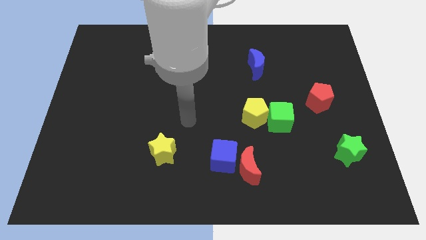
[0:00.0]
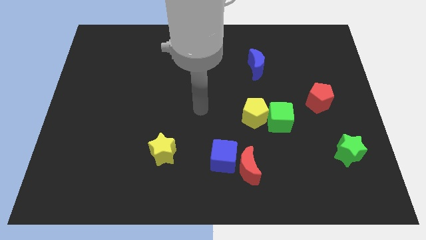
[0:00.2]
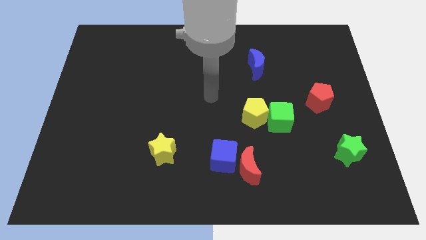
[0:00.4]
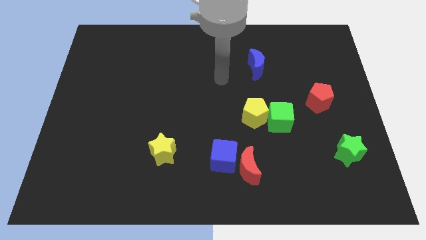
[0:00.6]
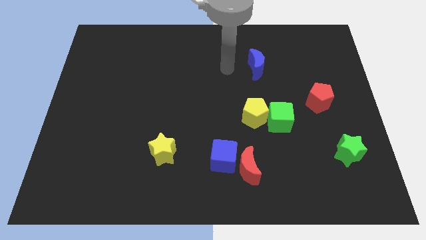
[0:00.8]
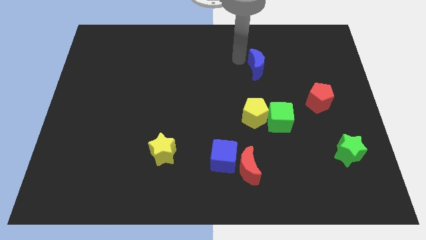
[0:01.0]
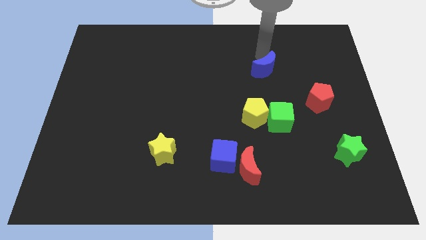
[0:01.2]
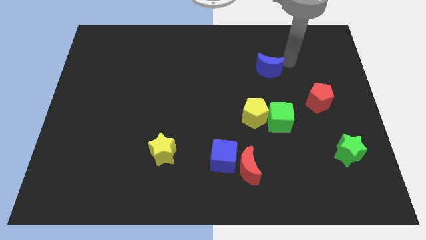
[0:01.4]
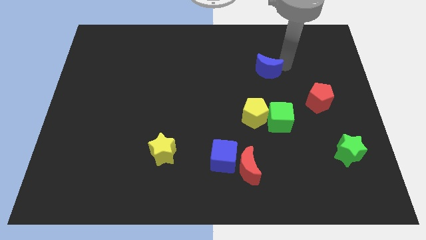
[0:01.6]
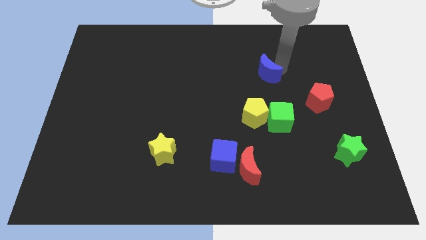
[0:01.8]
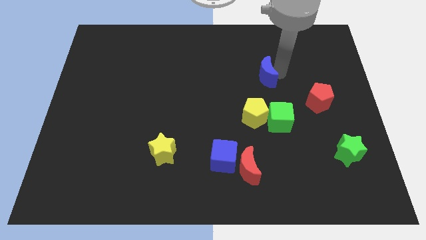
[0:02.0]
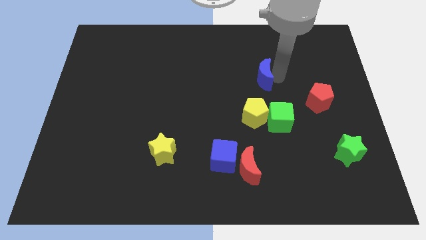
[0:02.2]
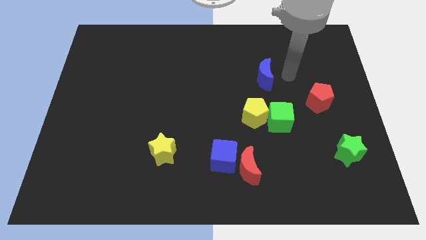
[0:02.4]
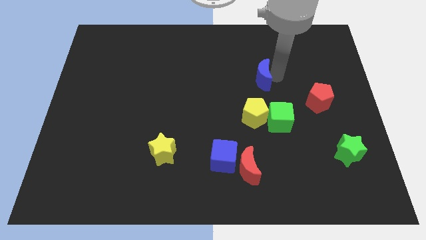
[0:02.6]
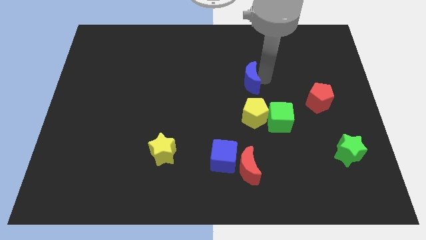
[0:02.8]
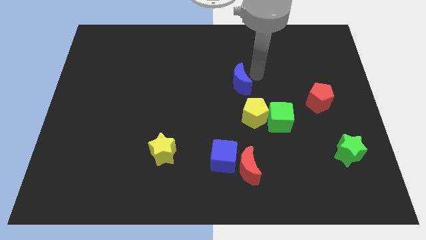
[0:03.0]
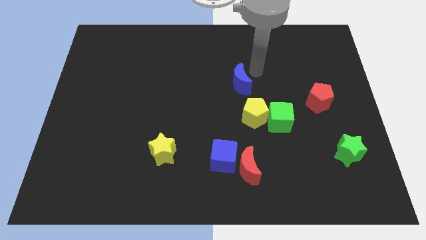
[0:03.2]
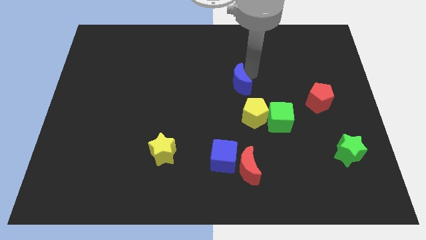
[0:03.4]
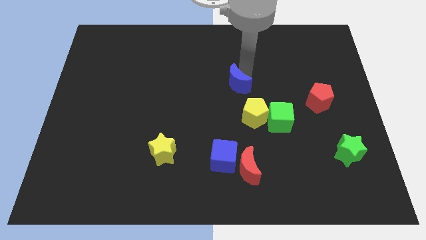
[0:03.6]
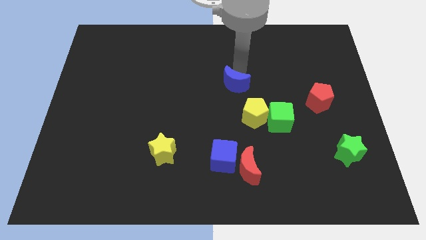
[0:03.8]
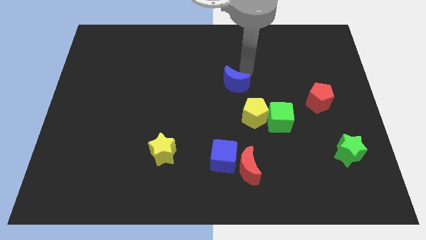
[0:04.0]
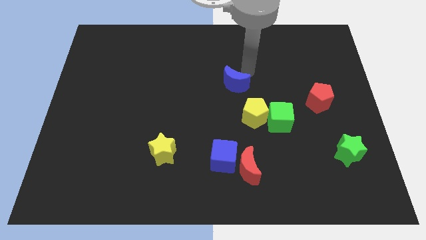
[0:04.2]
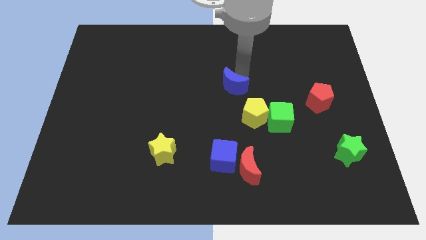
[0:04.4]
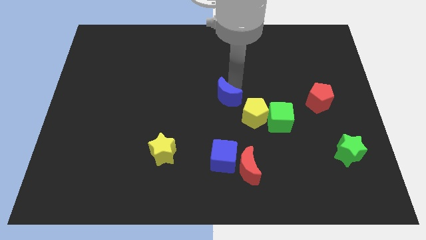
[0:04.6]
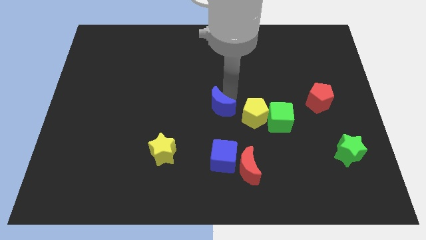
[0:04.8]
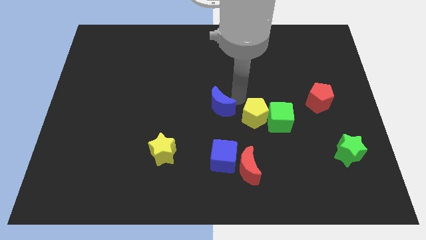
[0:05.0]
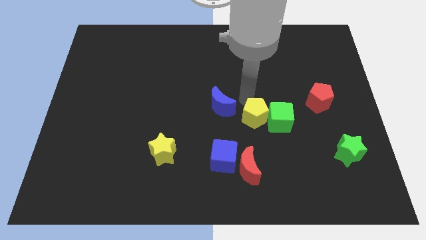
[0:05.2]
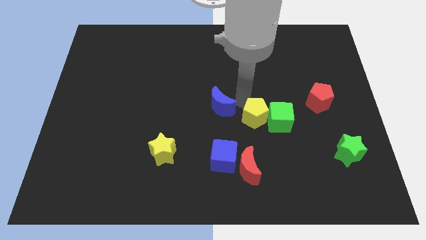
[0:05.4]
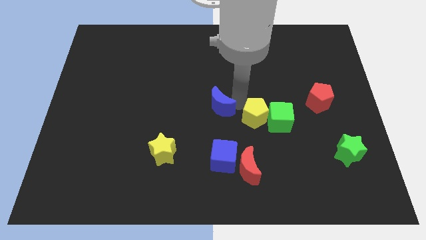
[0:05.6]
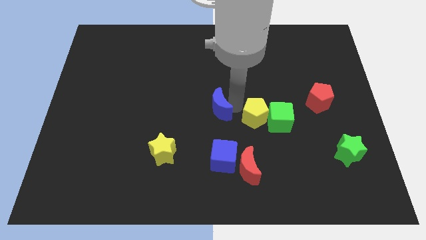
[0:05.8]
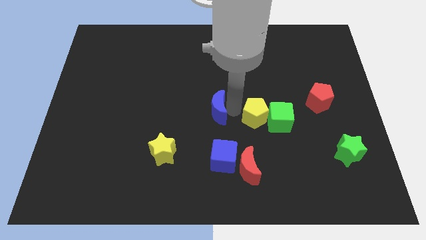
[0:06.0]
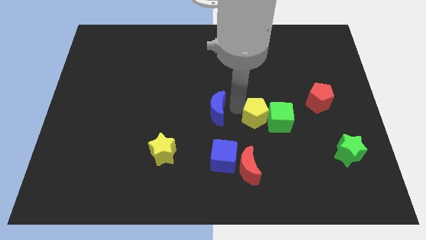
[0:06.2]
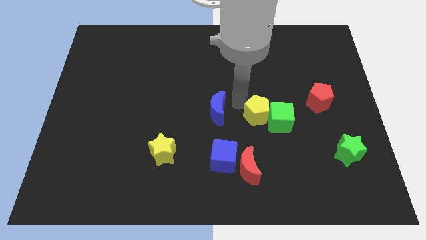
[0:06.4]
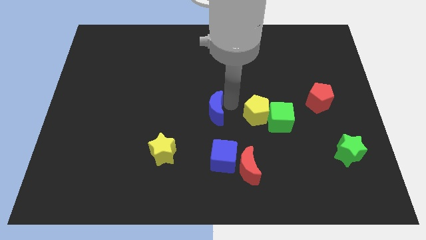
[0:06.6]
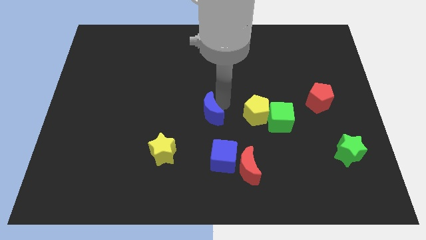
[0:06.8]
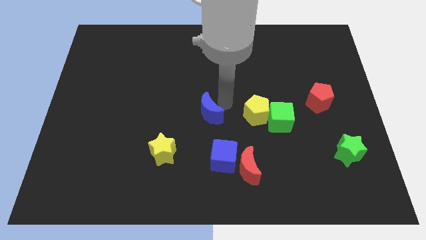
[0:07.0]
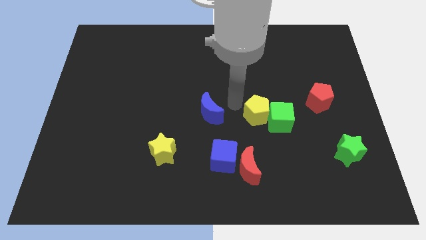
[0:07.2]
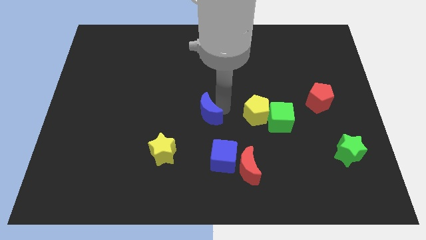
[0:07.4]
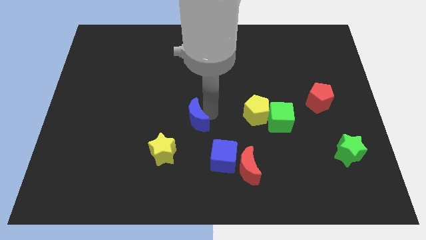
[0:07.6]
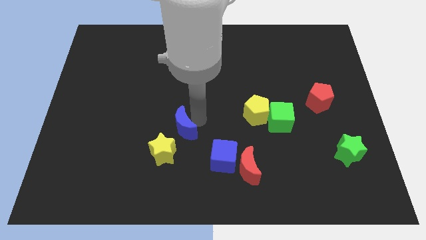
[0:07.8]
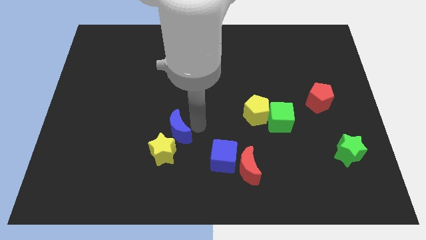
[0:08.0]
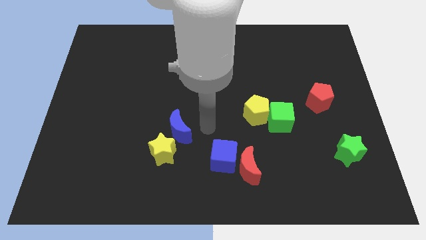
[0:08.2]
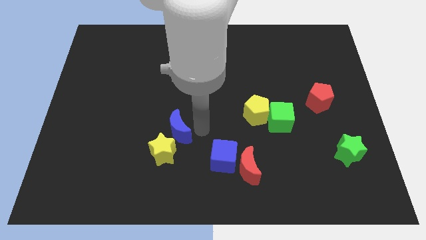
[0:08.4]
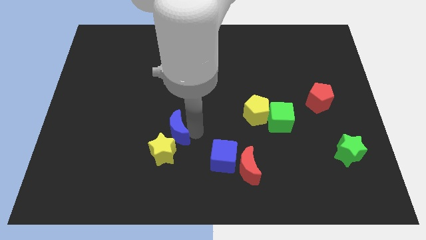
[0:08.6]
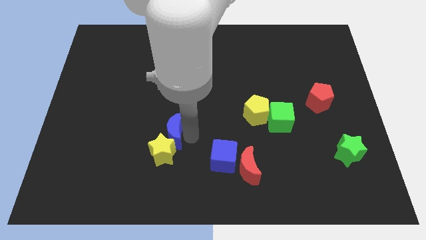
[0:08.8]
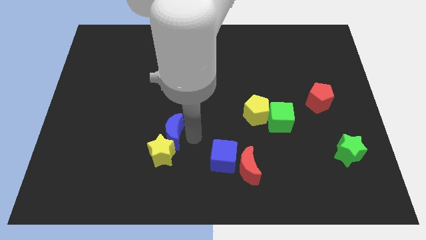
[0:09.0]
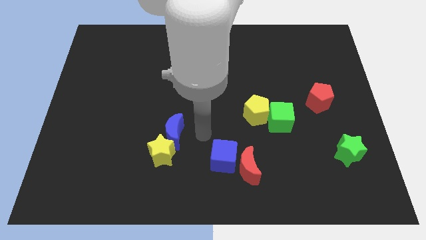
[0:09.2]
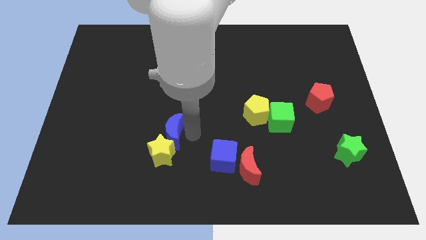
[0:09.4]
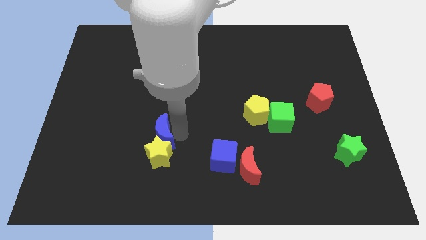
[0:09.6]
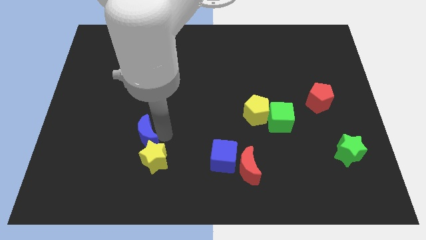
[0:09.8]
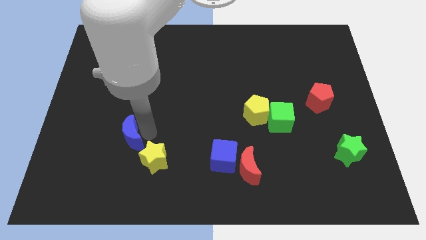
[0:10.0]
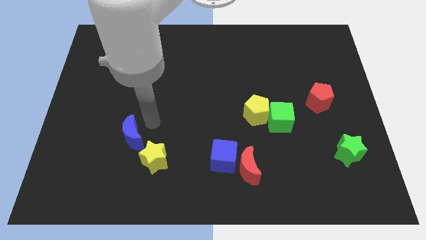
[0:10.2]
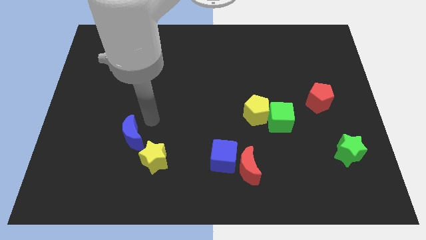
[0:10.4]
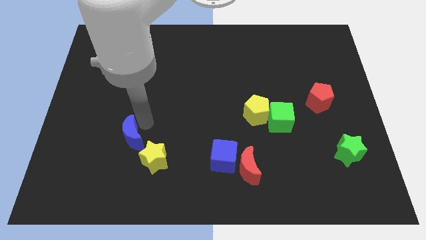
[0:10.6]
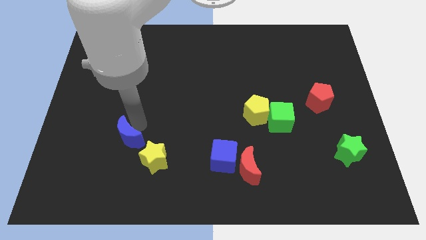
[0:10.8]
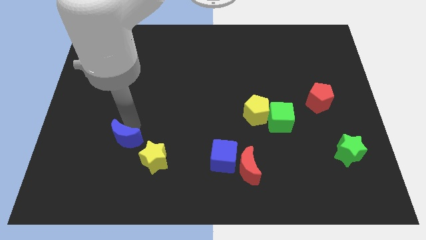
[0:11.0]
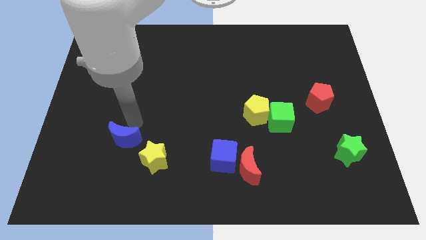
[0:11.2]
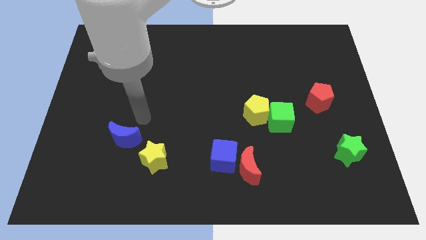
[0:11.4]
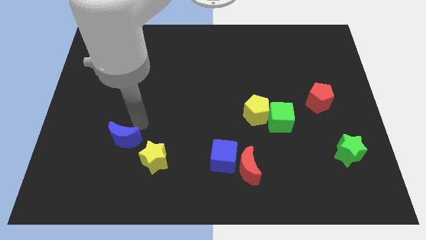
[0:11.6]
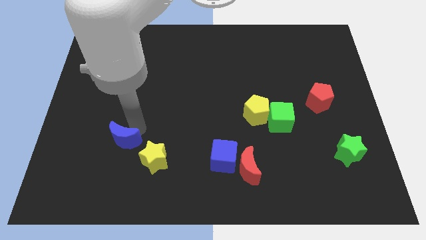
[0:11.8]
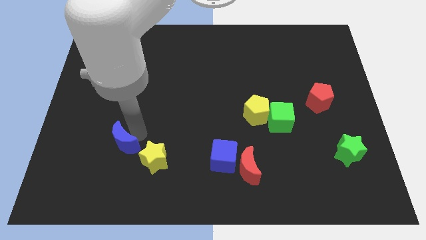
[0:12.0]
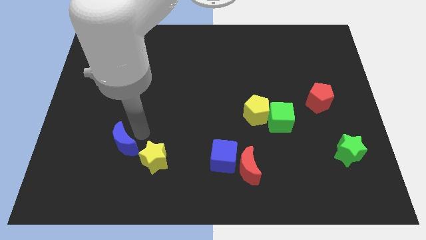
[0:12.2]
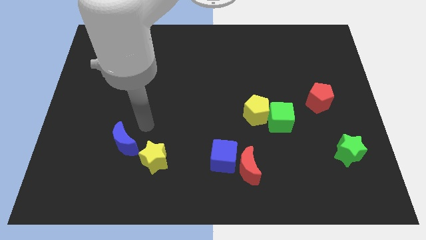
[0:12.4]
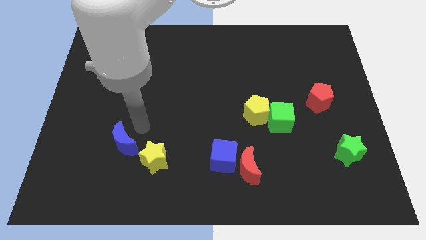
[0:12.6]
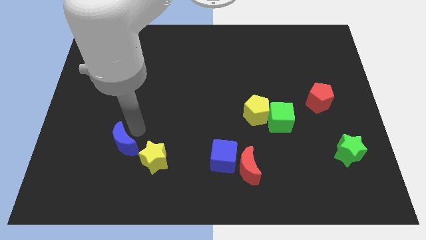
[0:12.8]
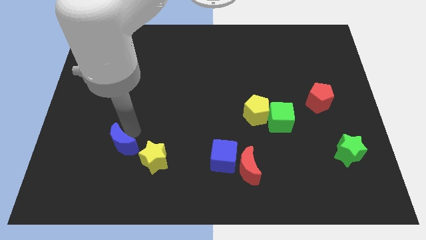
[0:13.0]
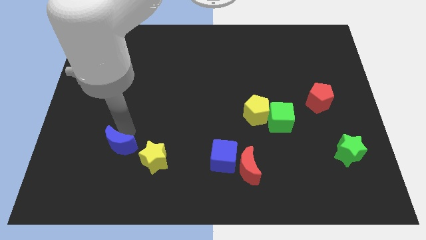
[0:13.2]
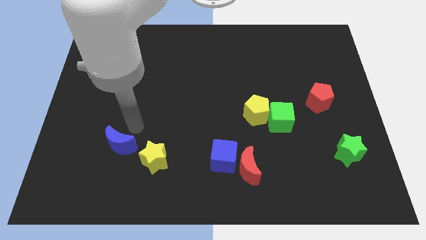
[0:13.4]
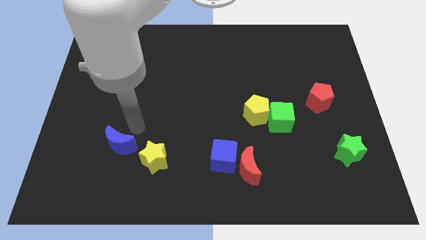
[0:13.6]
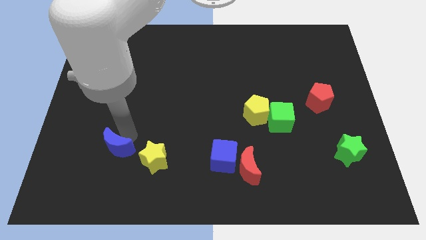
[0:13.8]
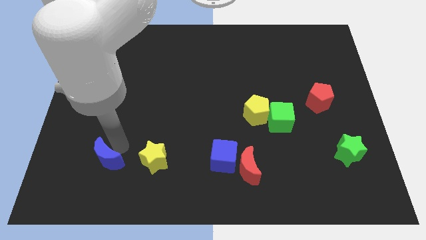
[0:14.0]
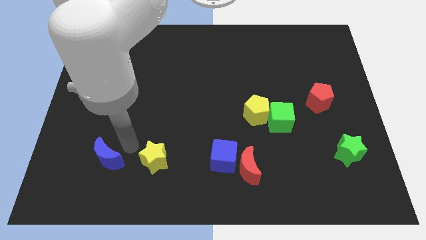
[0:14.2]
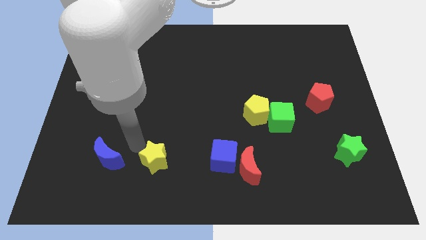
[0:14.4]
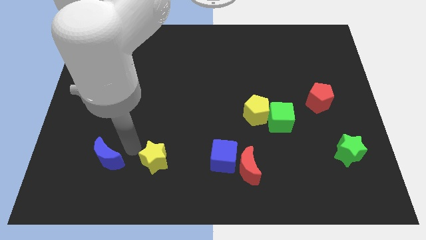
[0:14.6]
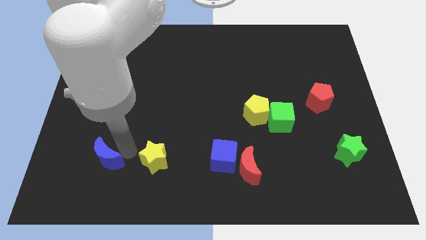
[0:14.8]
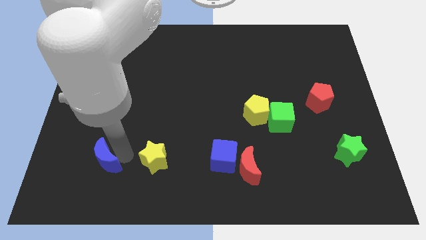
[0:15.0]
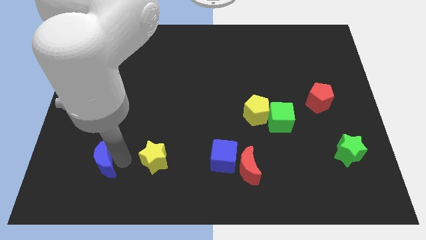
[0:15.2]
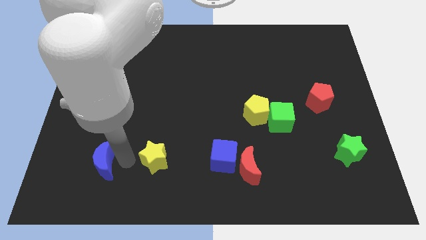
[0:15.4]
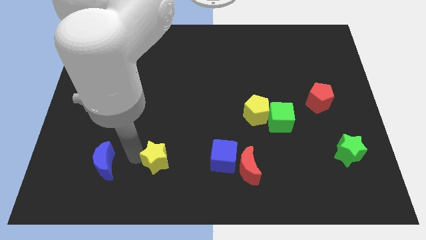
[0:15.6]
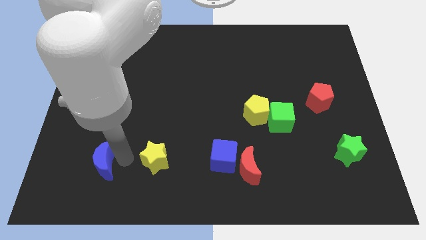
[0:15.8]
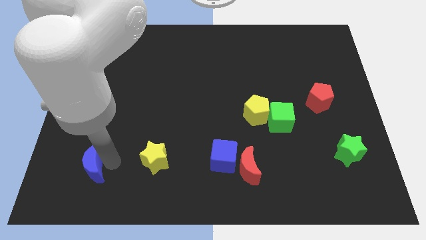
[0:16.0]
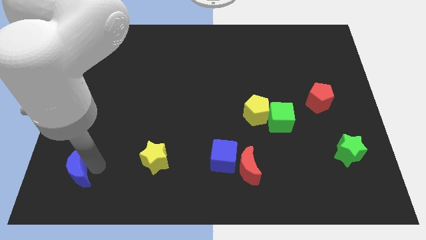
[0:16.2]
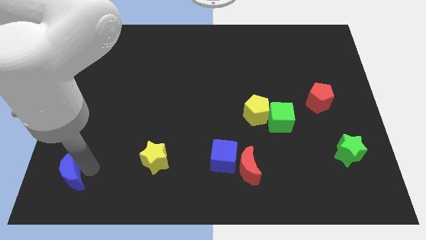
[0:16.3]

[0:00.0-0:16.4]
slide the blue moon to the bottom left of the board
